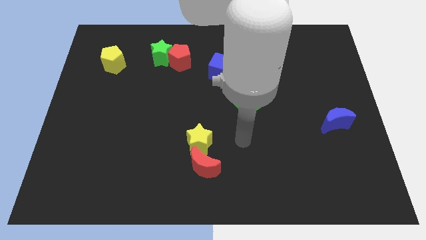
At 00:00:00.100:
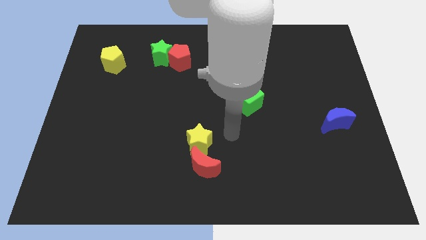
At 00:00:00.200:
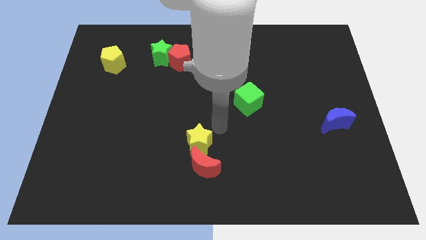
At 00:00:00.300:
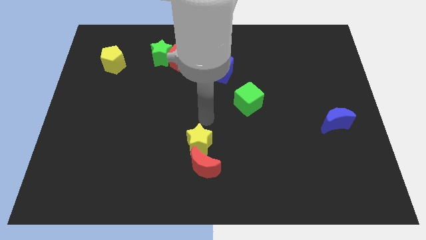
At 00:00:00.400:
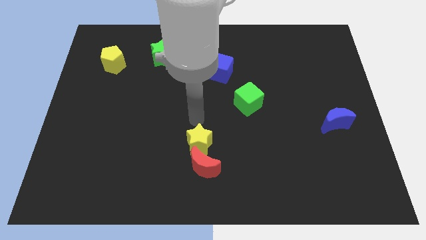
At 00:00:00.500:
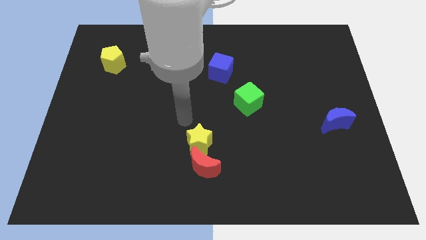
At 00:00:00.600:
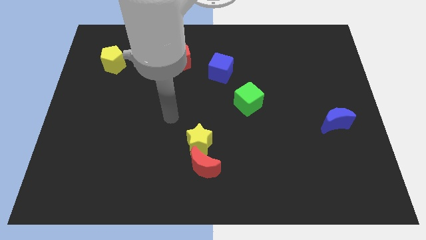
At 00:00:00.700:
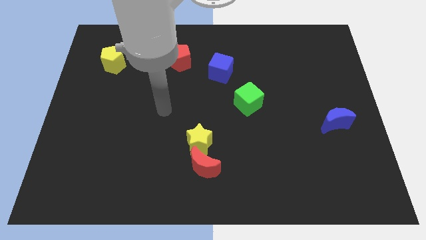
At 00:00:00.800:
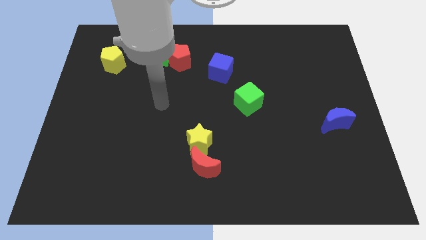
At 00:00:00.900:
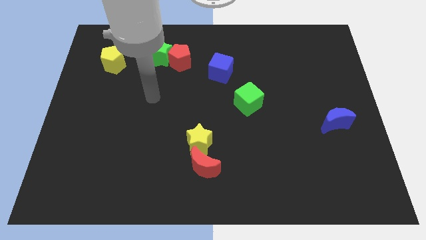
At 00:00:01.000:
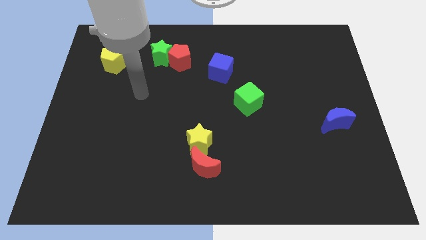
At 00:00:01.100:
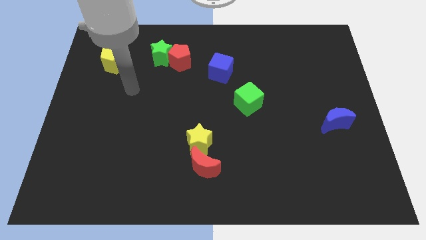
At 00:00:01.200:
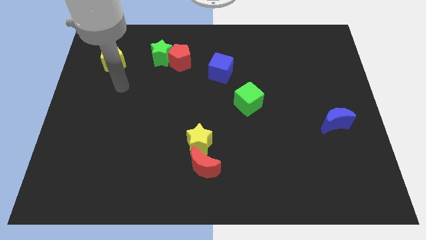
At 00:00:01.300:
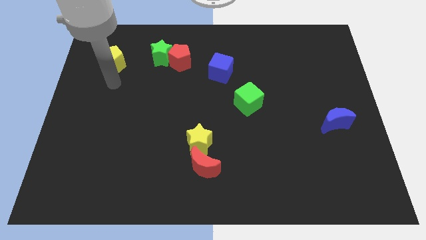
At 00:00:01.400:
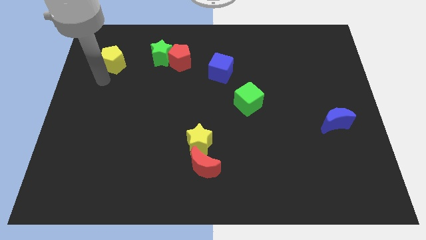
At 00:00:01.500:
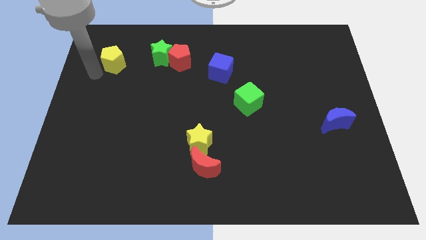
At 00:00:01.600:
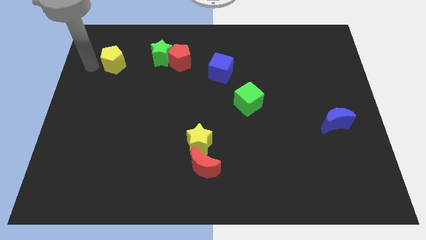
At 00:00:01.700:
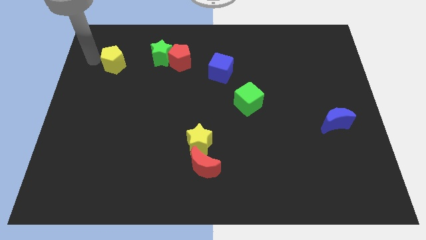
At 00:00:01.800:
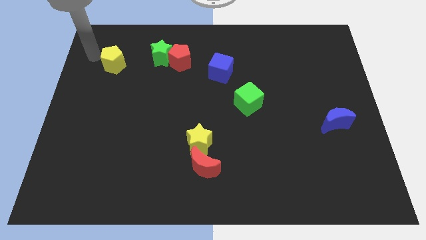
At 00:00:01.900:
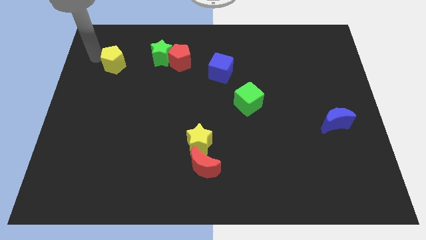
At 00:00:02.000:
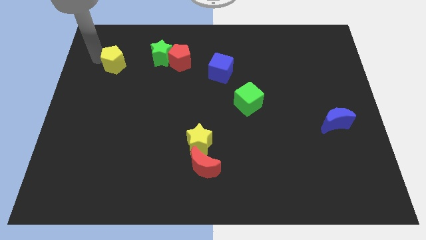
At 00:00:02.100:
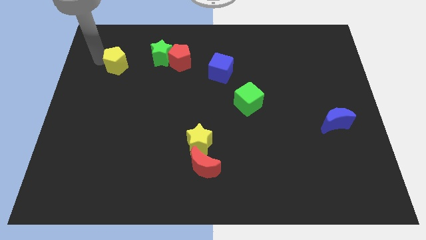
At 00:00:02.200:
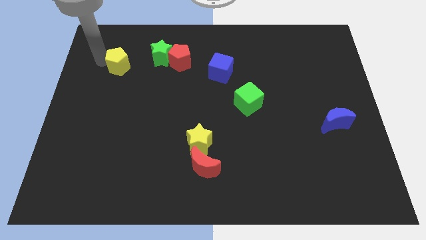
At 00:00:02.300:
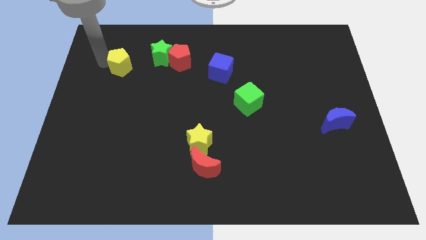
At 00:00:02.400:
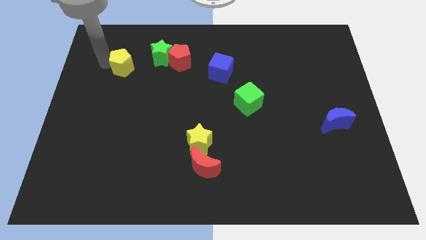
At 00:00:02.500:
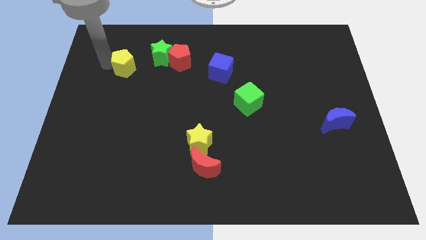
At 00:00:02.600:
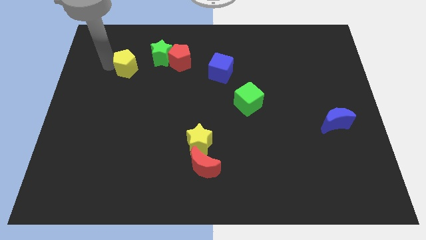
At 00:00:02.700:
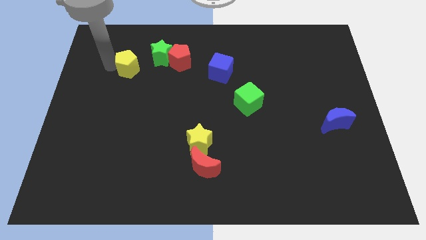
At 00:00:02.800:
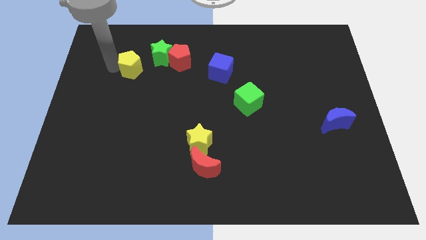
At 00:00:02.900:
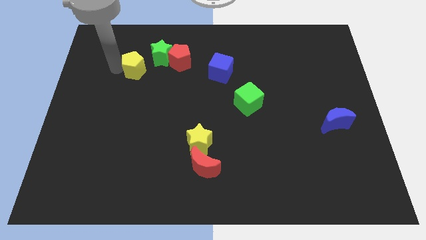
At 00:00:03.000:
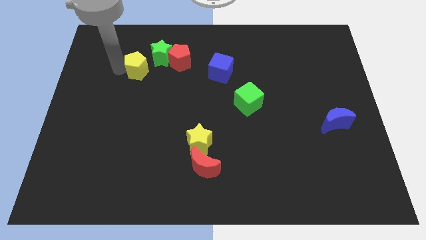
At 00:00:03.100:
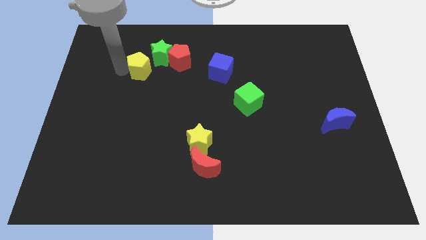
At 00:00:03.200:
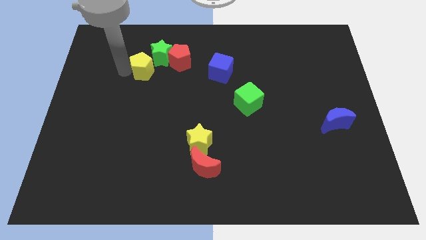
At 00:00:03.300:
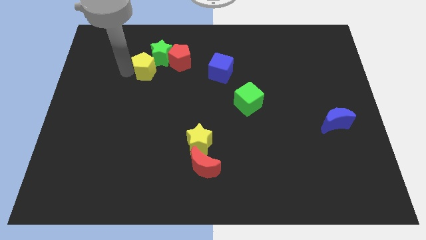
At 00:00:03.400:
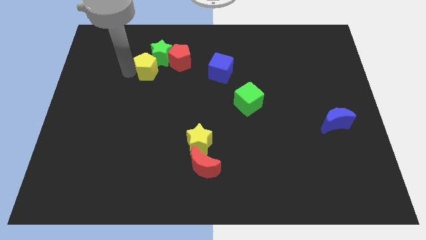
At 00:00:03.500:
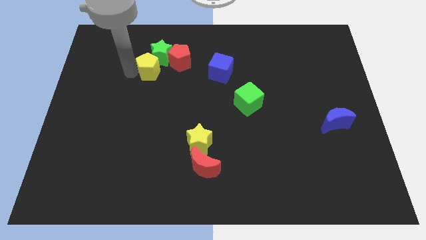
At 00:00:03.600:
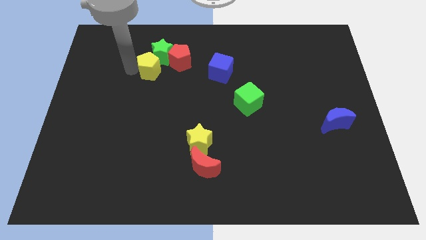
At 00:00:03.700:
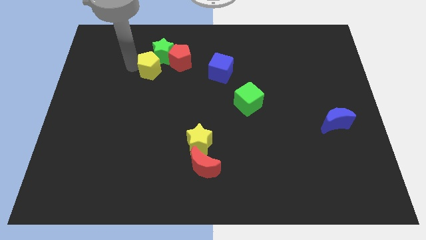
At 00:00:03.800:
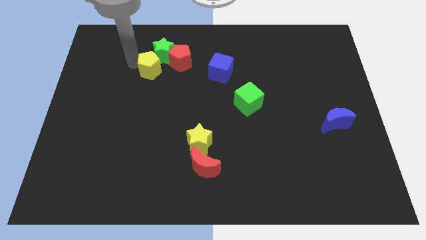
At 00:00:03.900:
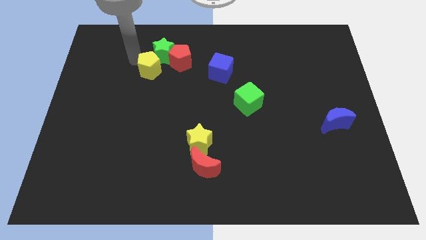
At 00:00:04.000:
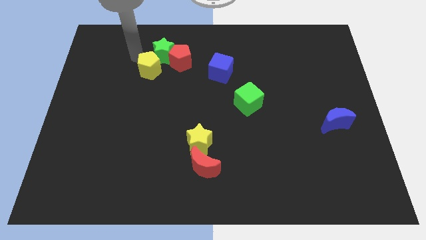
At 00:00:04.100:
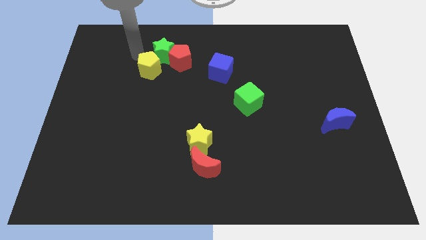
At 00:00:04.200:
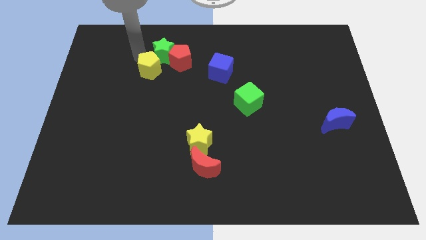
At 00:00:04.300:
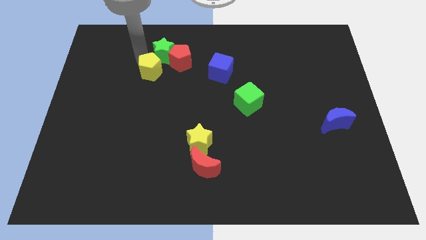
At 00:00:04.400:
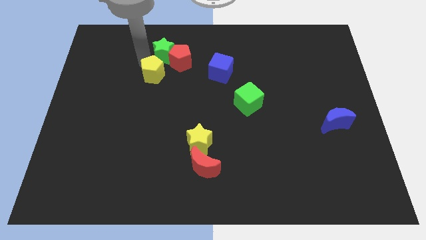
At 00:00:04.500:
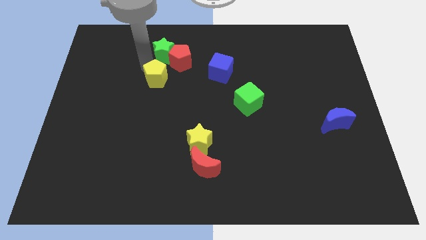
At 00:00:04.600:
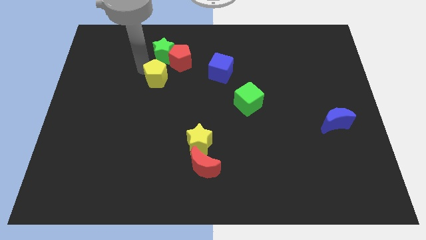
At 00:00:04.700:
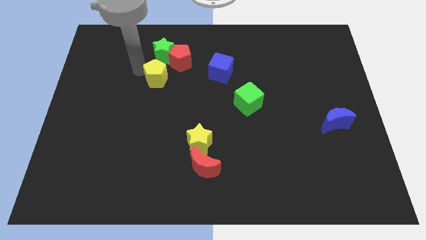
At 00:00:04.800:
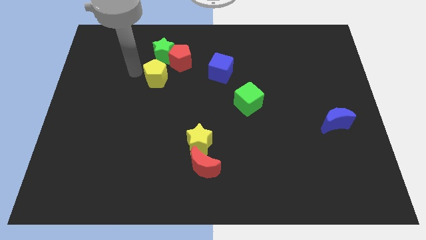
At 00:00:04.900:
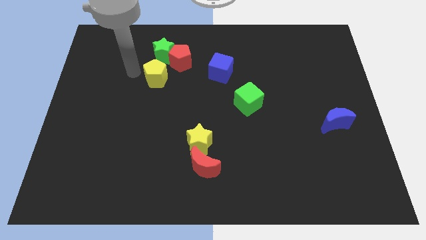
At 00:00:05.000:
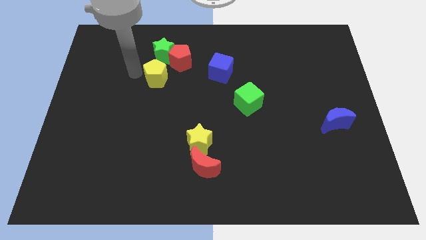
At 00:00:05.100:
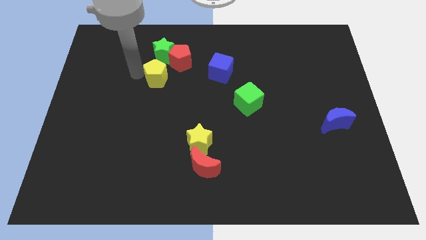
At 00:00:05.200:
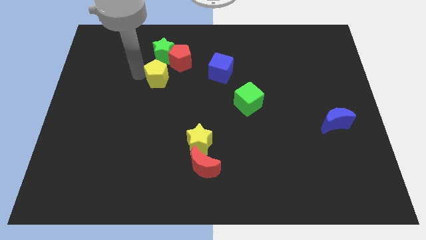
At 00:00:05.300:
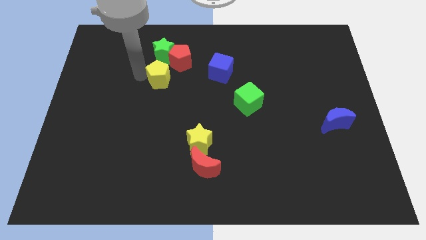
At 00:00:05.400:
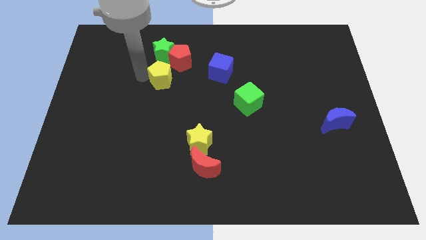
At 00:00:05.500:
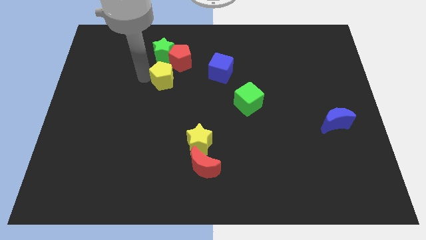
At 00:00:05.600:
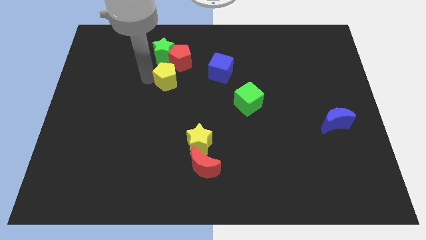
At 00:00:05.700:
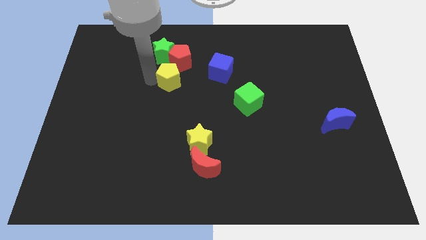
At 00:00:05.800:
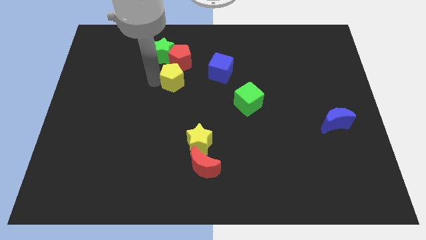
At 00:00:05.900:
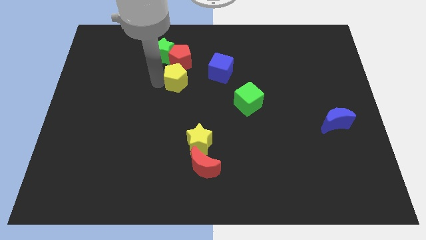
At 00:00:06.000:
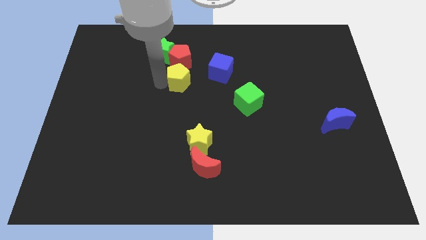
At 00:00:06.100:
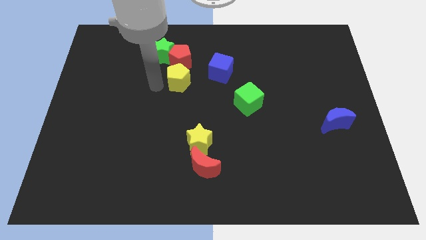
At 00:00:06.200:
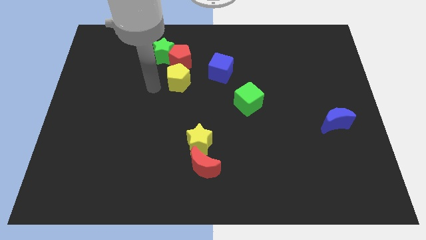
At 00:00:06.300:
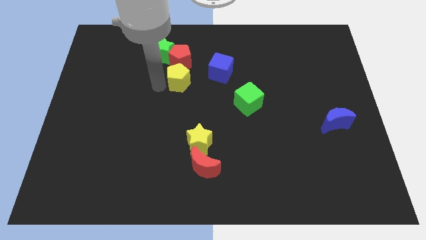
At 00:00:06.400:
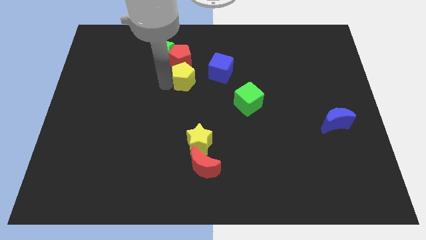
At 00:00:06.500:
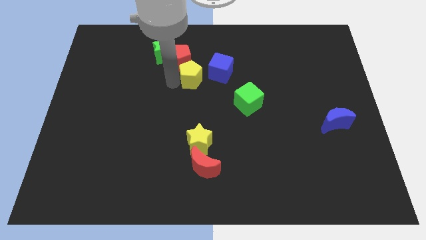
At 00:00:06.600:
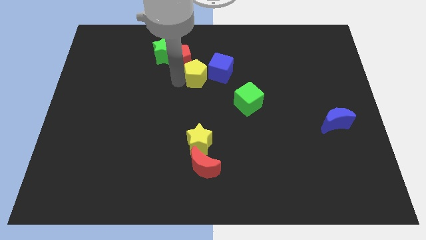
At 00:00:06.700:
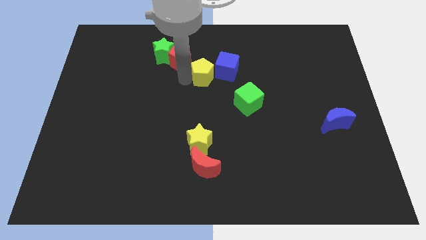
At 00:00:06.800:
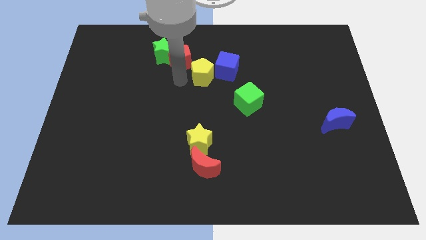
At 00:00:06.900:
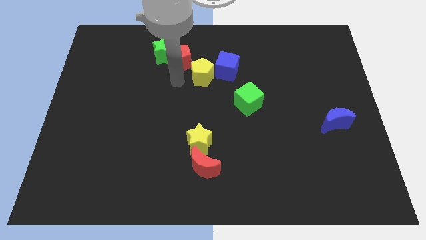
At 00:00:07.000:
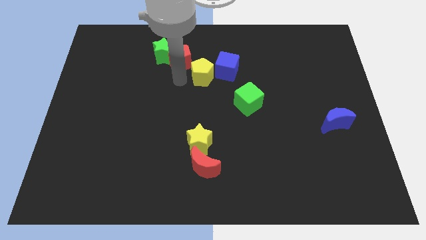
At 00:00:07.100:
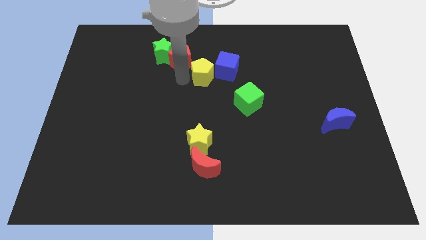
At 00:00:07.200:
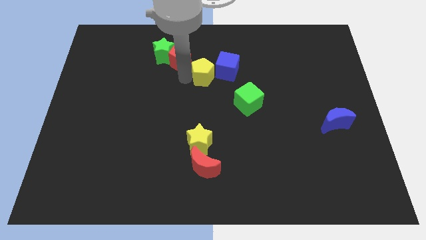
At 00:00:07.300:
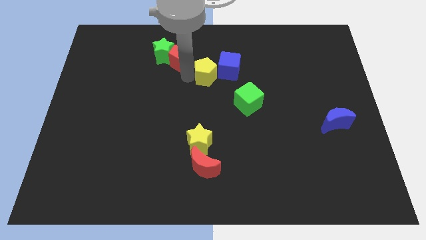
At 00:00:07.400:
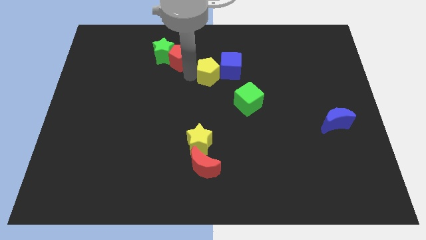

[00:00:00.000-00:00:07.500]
put the yellow pentagon next to the blue cube
